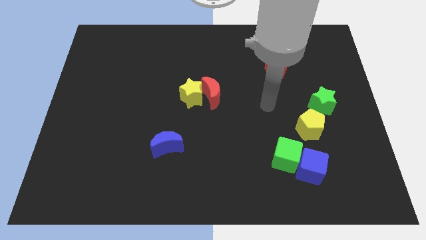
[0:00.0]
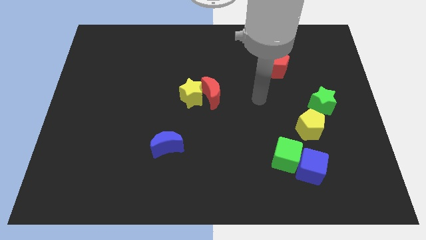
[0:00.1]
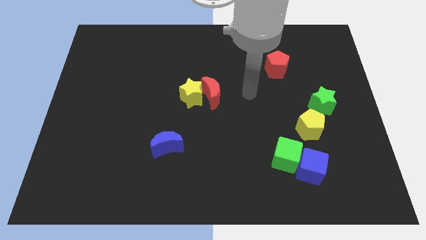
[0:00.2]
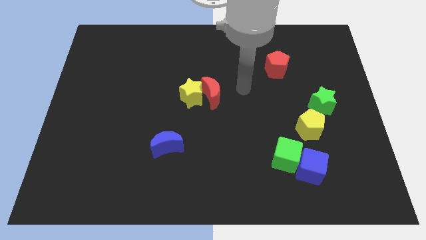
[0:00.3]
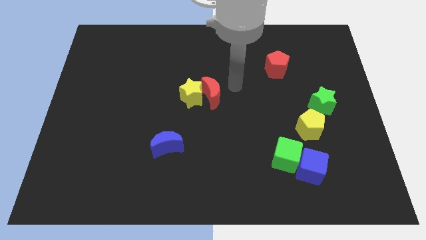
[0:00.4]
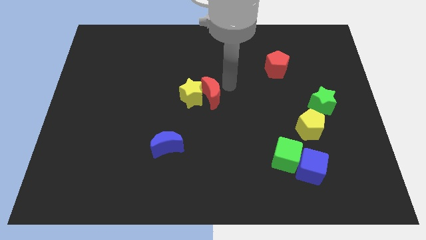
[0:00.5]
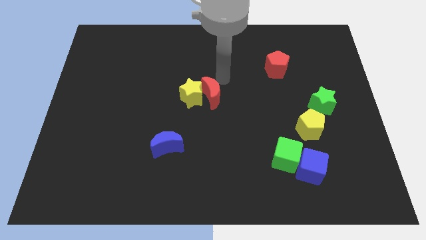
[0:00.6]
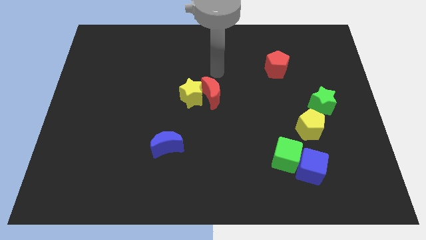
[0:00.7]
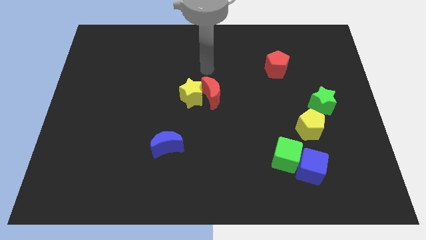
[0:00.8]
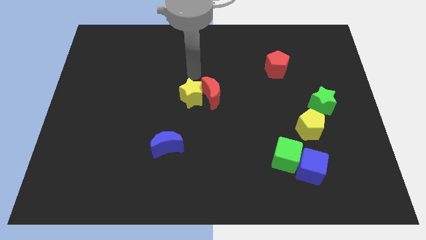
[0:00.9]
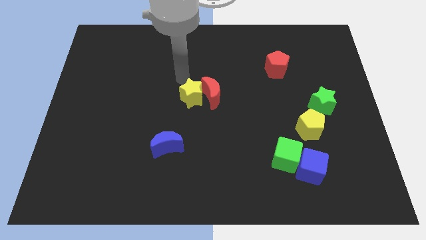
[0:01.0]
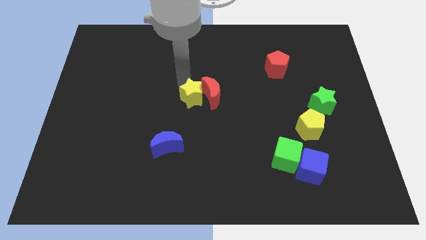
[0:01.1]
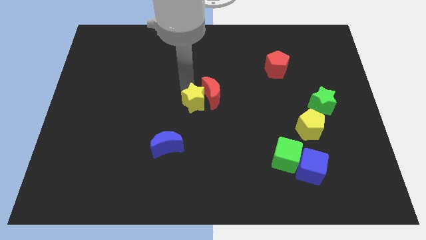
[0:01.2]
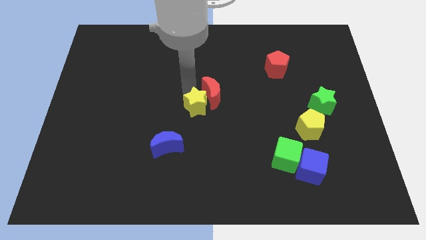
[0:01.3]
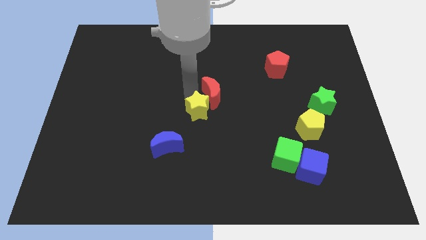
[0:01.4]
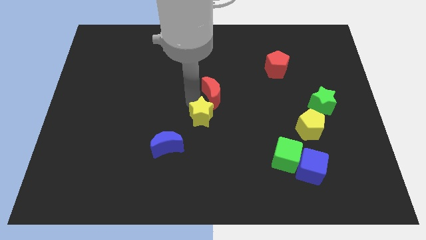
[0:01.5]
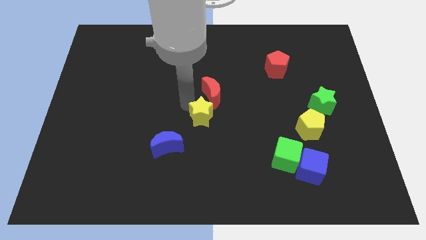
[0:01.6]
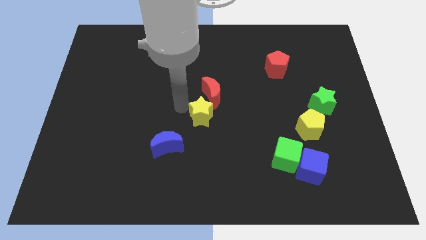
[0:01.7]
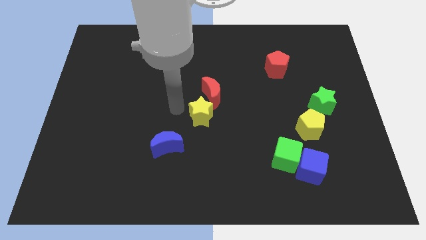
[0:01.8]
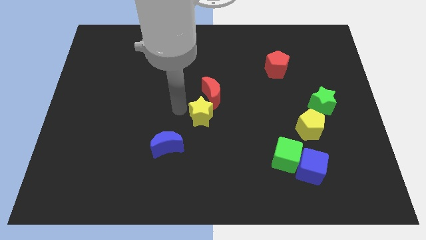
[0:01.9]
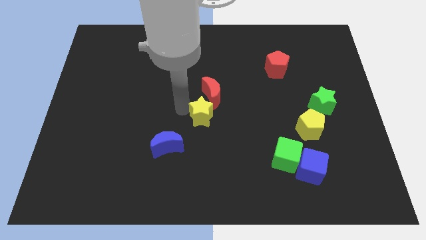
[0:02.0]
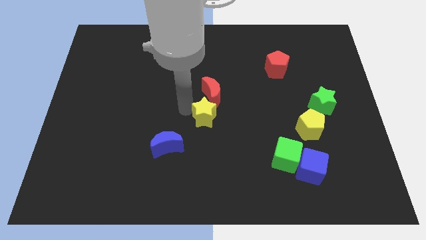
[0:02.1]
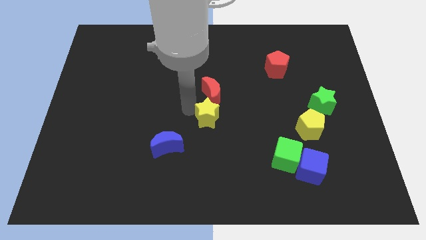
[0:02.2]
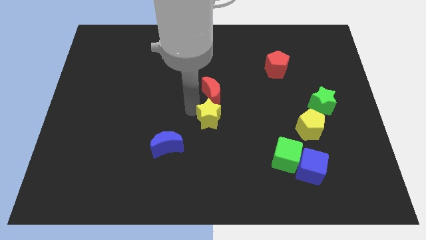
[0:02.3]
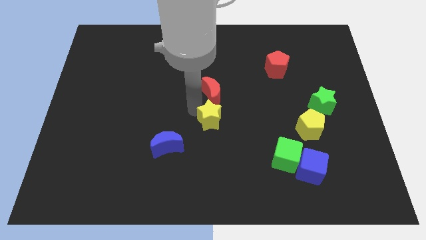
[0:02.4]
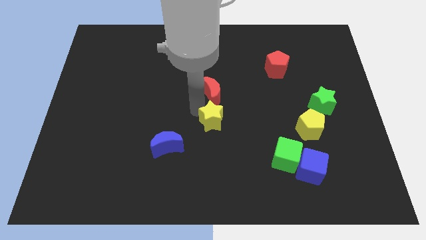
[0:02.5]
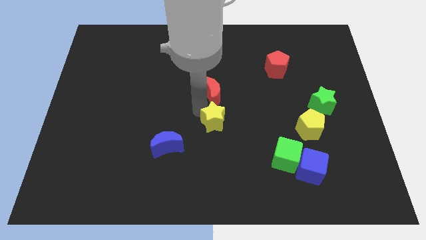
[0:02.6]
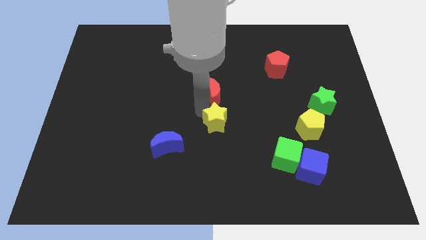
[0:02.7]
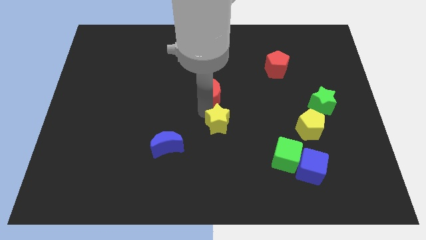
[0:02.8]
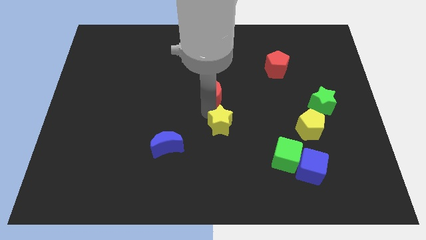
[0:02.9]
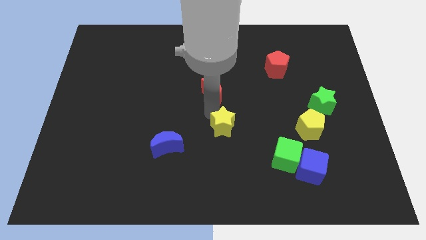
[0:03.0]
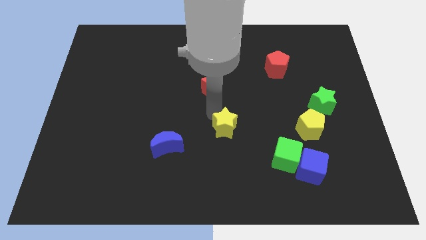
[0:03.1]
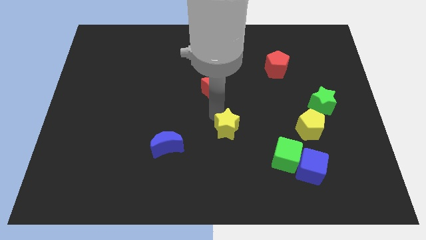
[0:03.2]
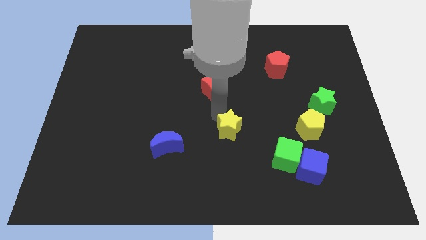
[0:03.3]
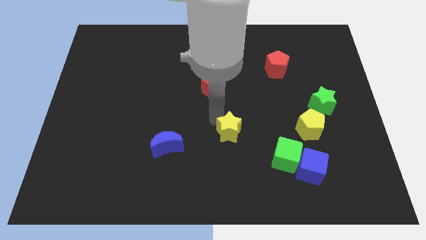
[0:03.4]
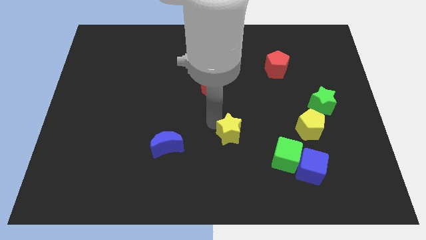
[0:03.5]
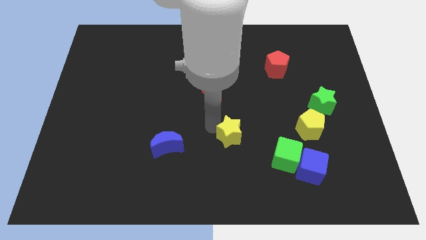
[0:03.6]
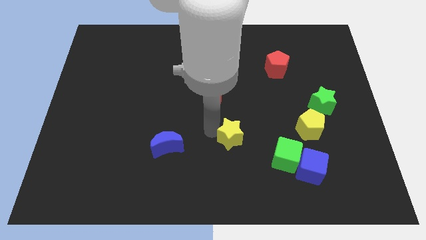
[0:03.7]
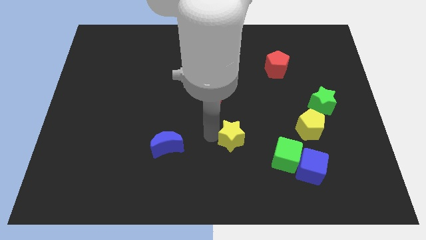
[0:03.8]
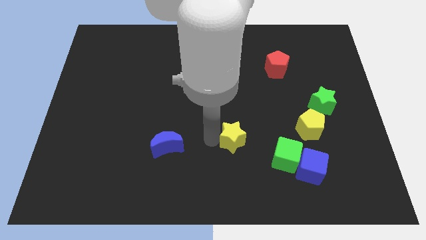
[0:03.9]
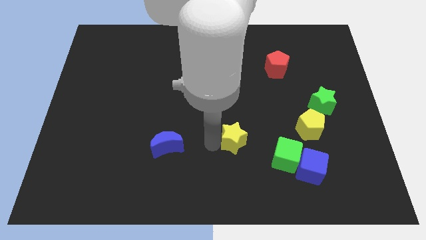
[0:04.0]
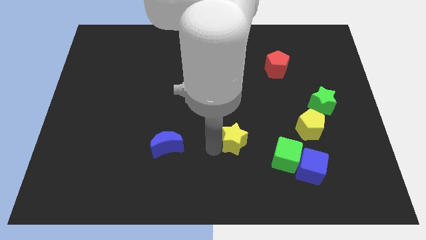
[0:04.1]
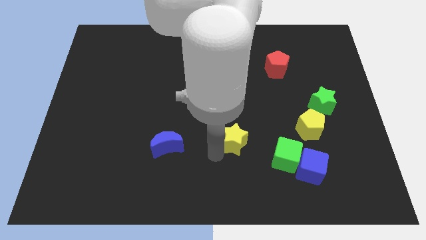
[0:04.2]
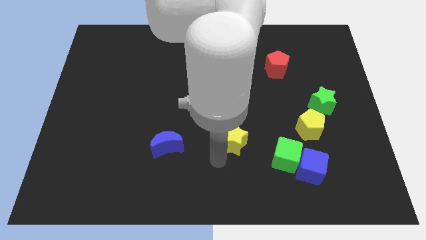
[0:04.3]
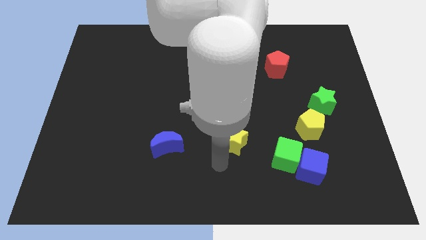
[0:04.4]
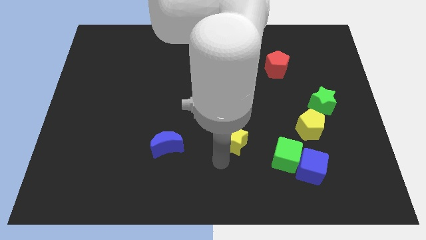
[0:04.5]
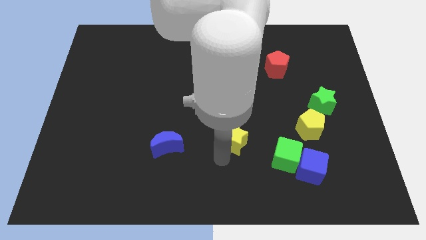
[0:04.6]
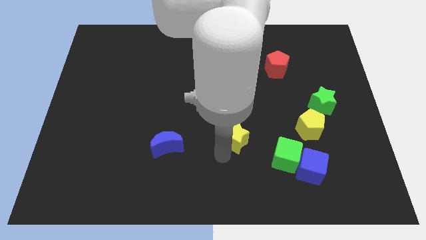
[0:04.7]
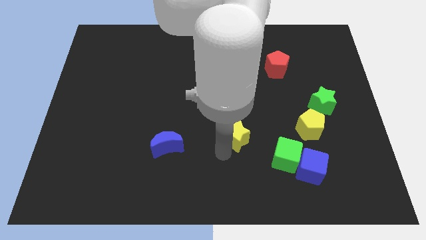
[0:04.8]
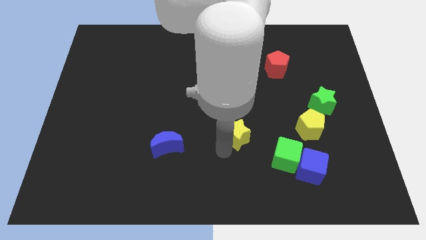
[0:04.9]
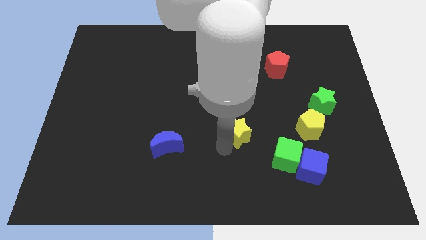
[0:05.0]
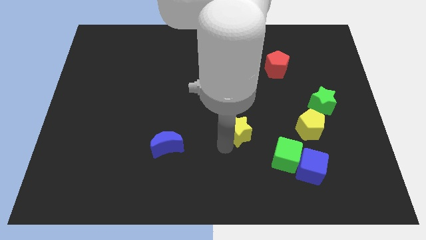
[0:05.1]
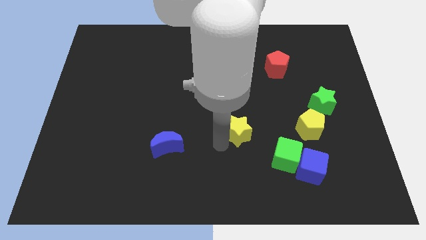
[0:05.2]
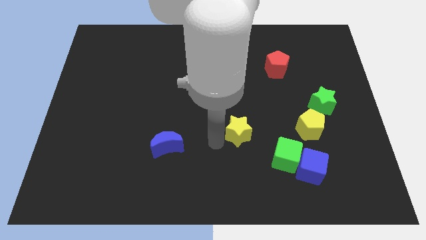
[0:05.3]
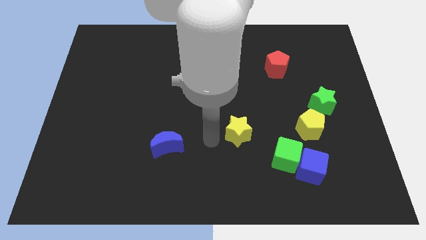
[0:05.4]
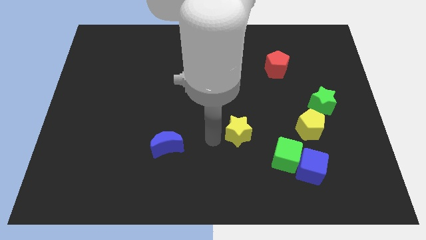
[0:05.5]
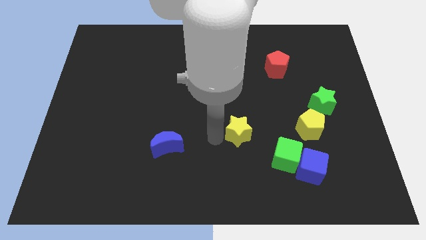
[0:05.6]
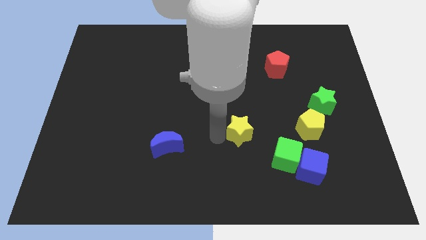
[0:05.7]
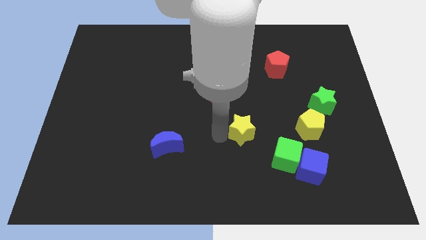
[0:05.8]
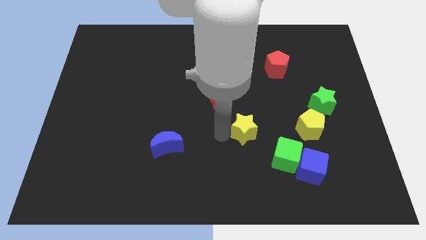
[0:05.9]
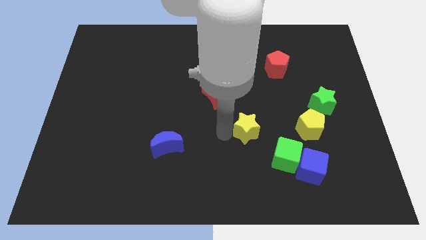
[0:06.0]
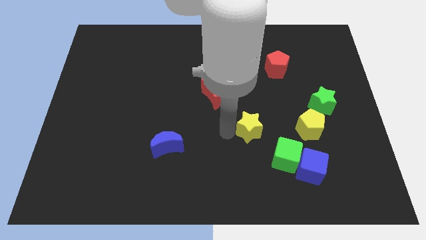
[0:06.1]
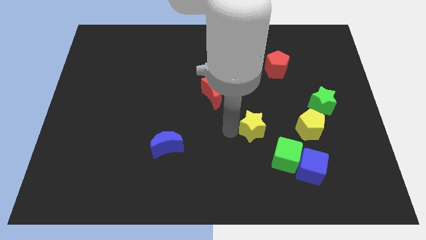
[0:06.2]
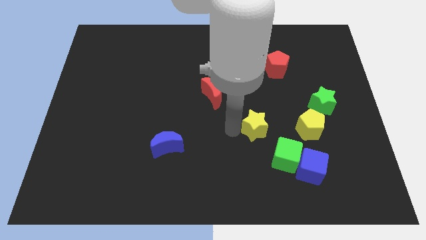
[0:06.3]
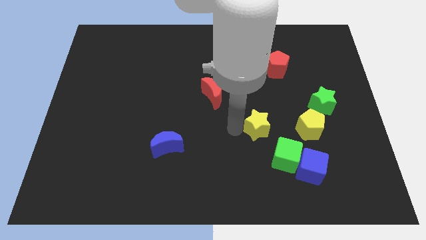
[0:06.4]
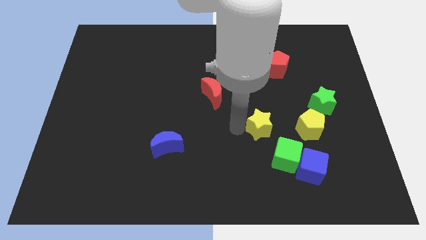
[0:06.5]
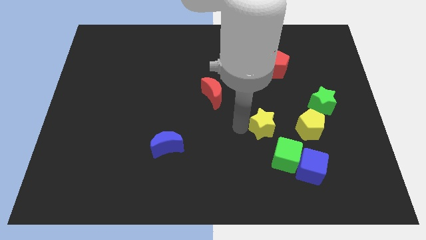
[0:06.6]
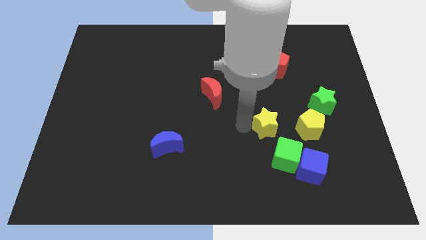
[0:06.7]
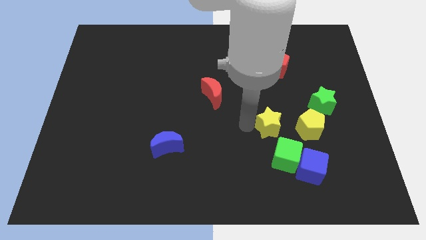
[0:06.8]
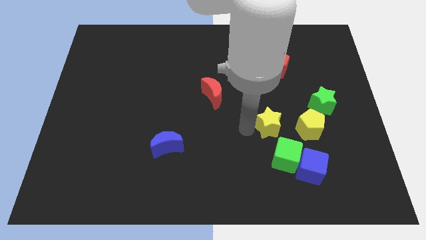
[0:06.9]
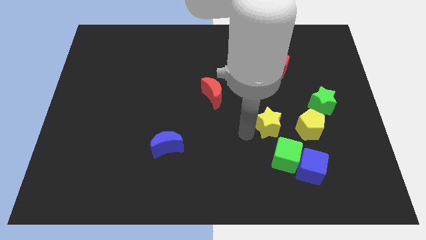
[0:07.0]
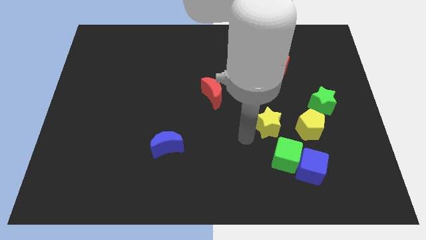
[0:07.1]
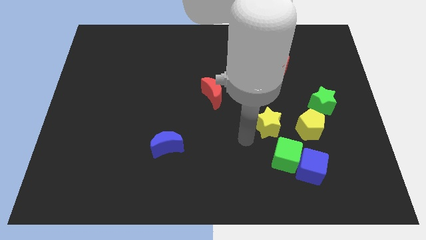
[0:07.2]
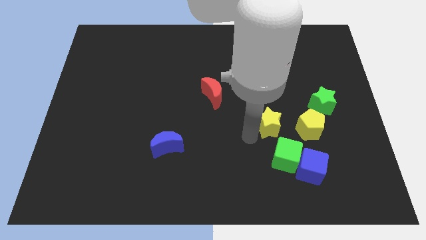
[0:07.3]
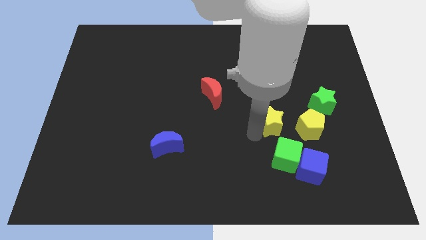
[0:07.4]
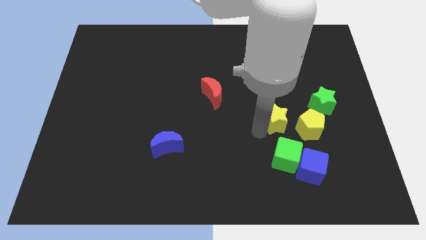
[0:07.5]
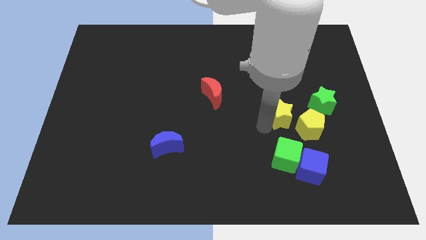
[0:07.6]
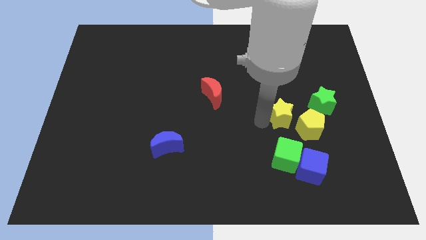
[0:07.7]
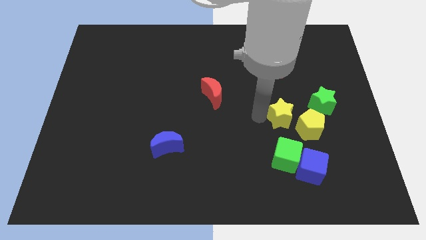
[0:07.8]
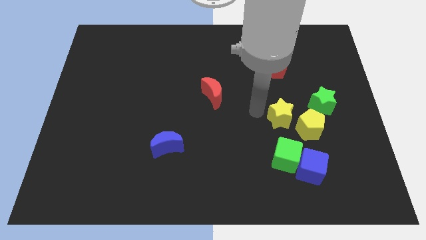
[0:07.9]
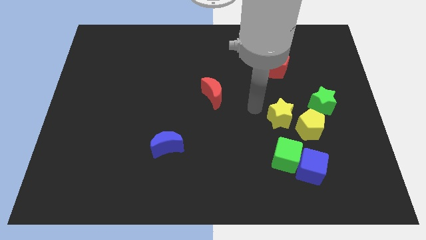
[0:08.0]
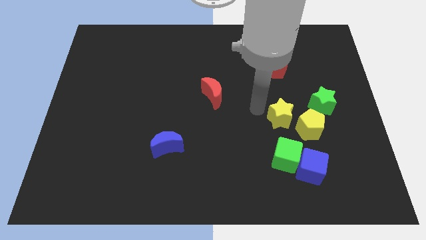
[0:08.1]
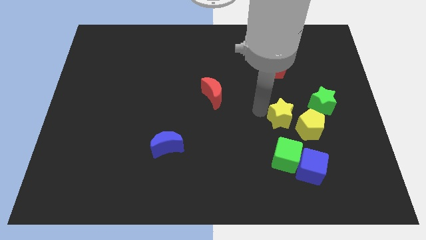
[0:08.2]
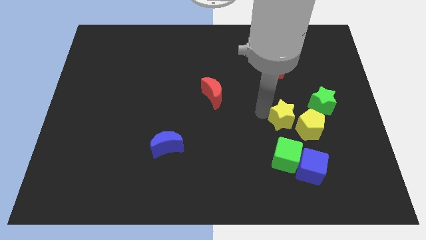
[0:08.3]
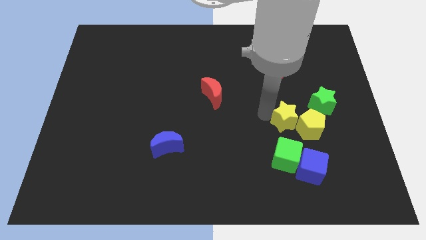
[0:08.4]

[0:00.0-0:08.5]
move the yellow star towards the yellow pentagon
